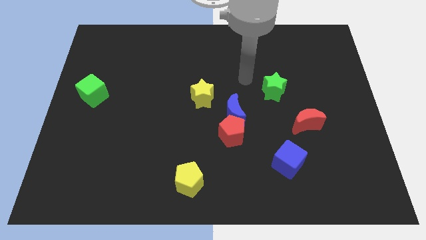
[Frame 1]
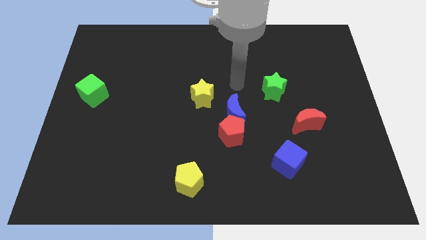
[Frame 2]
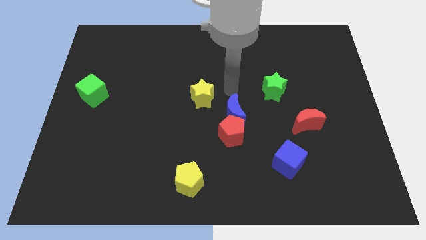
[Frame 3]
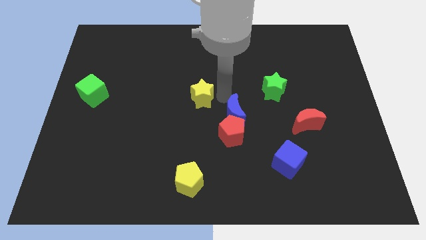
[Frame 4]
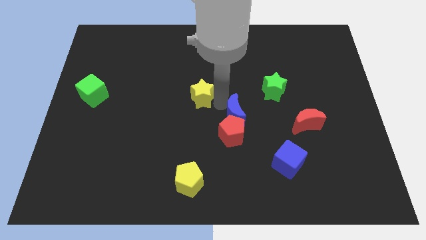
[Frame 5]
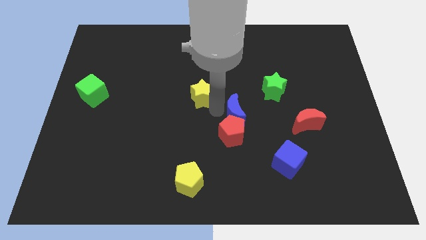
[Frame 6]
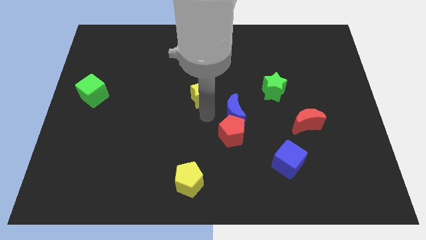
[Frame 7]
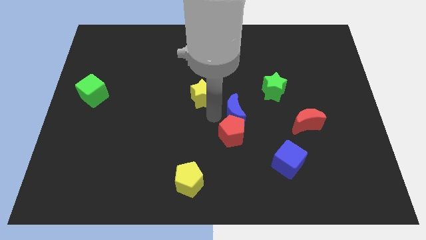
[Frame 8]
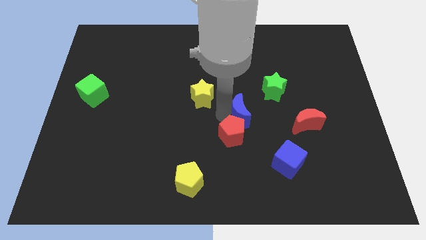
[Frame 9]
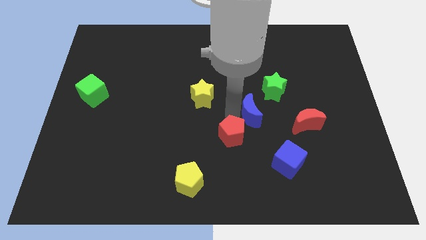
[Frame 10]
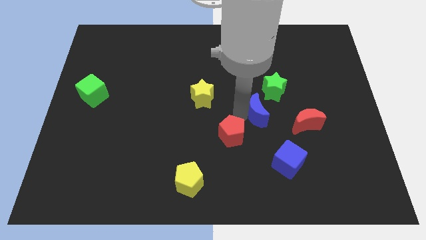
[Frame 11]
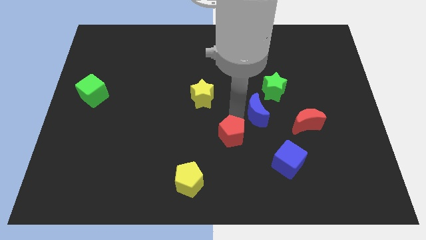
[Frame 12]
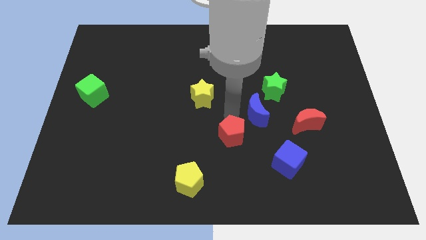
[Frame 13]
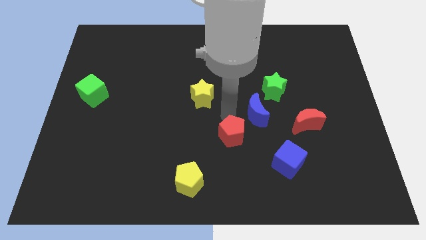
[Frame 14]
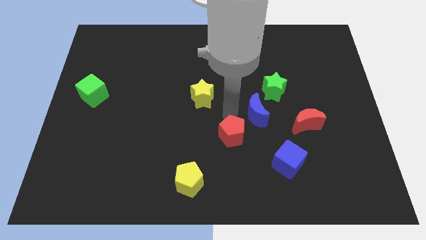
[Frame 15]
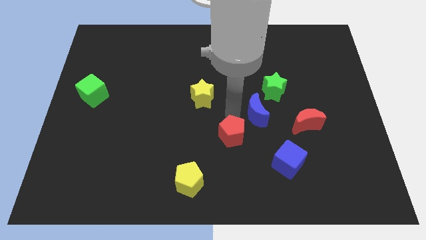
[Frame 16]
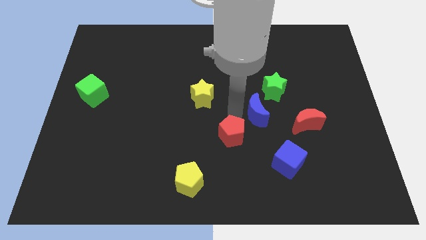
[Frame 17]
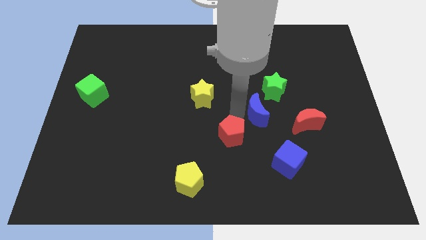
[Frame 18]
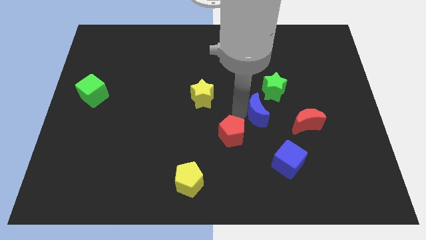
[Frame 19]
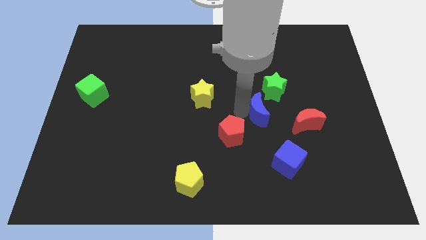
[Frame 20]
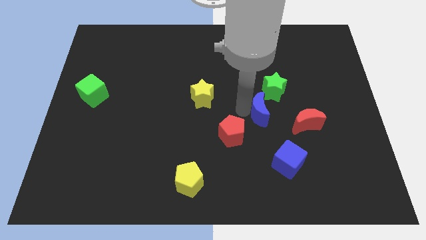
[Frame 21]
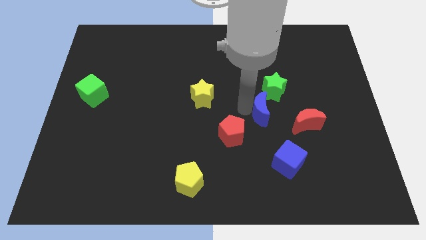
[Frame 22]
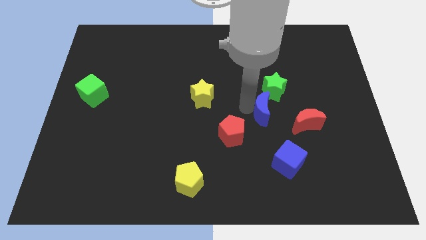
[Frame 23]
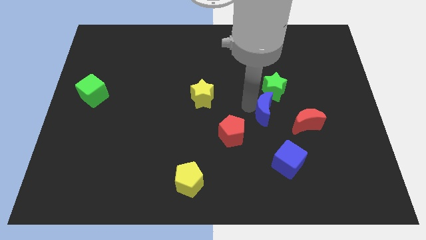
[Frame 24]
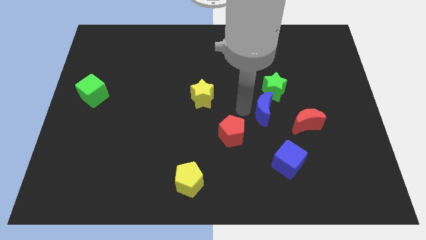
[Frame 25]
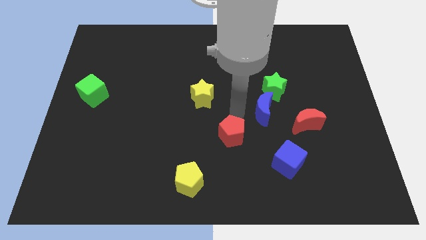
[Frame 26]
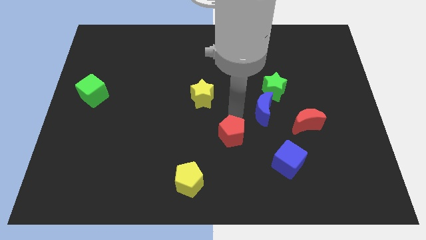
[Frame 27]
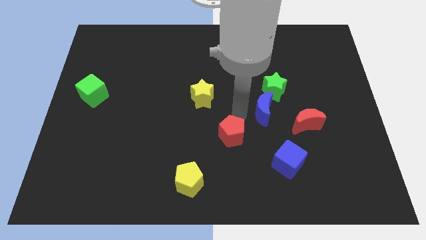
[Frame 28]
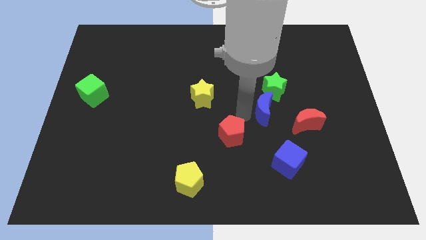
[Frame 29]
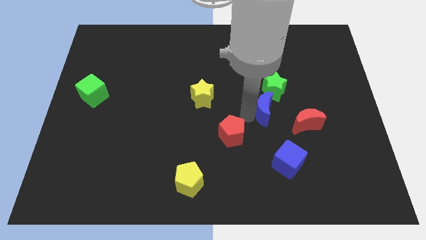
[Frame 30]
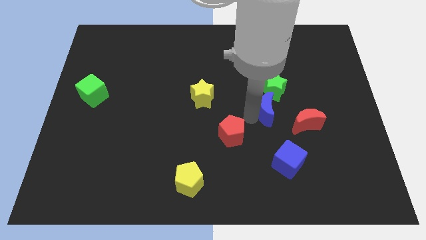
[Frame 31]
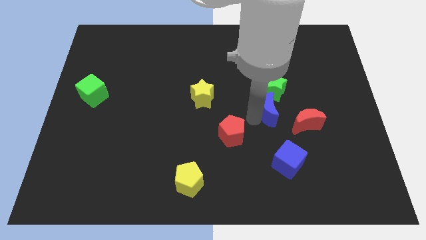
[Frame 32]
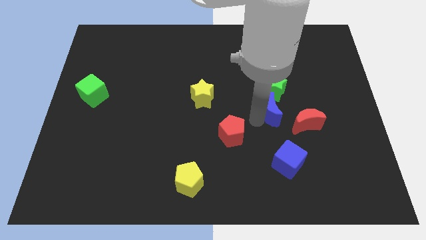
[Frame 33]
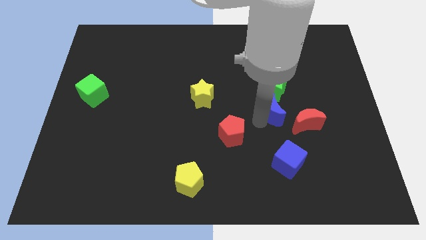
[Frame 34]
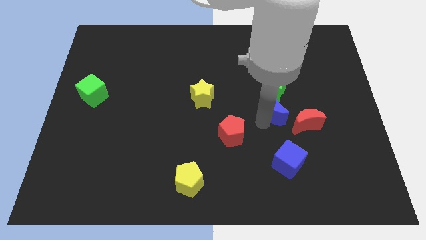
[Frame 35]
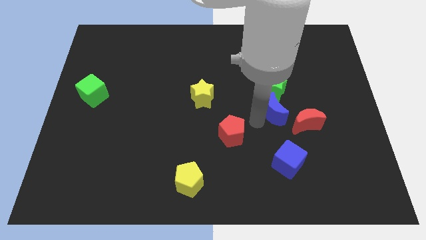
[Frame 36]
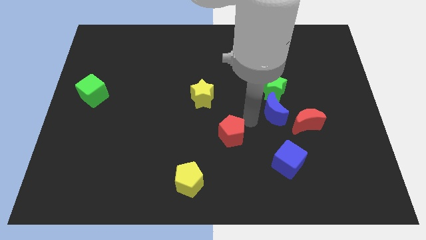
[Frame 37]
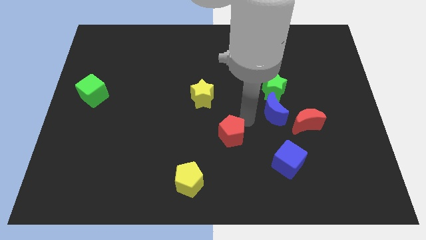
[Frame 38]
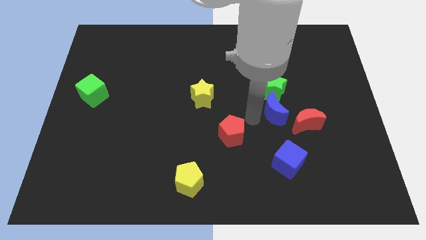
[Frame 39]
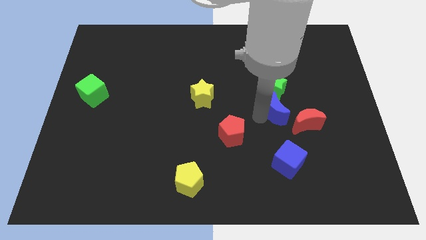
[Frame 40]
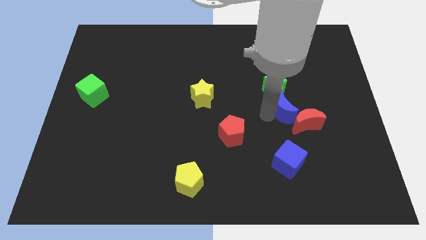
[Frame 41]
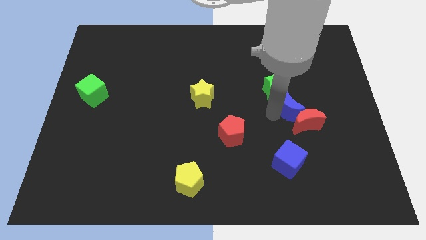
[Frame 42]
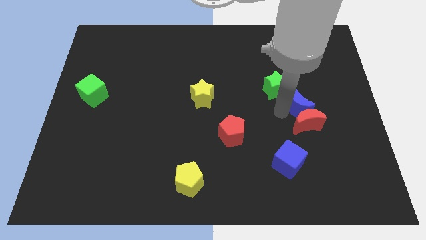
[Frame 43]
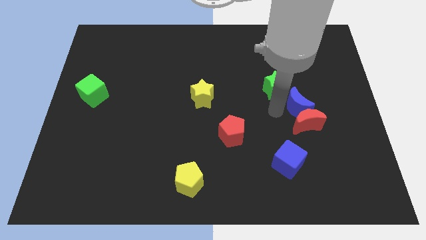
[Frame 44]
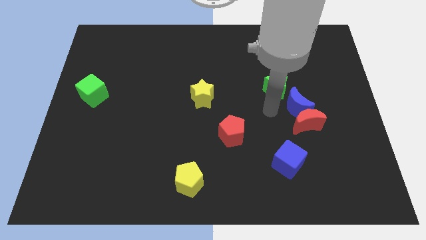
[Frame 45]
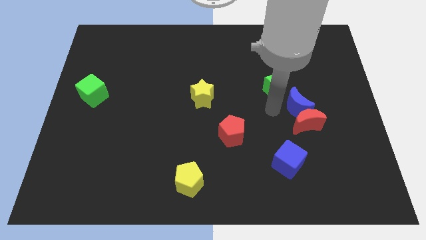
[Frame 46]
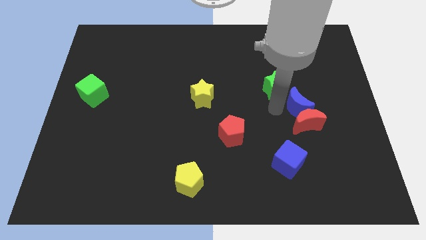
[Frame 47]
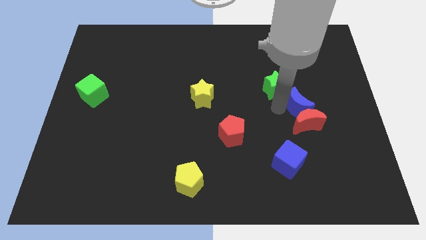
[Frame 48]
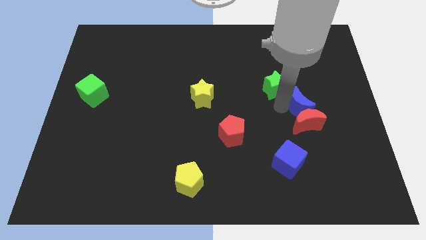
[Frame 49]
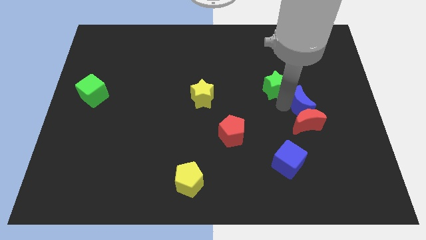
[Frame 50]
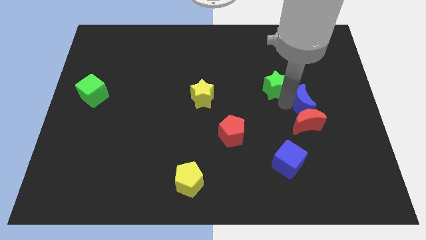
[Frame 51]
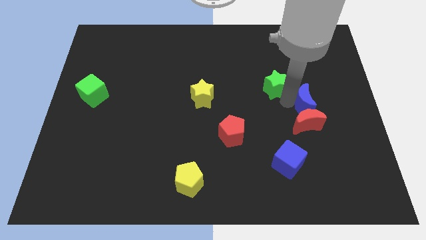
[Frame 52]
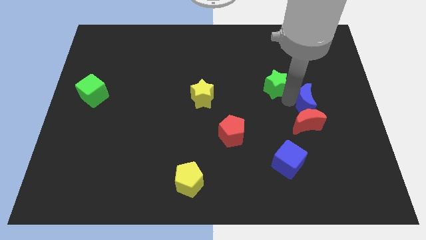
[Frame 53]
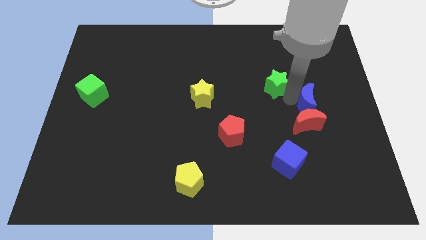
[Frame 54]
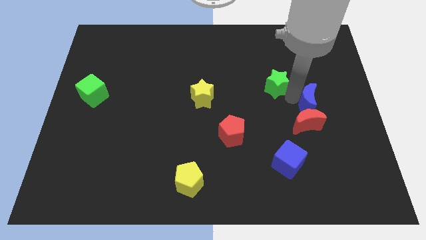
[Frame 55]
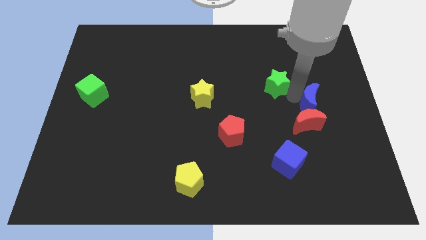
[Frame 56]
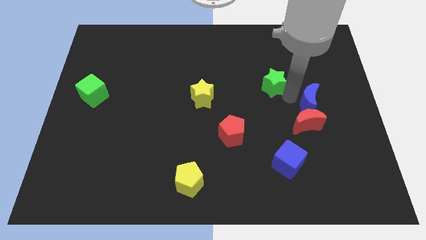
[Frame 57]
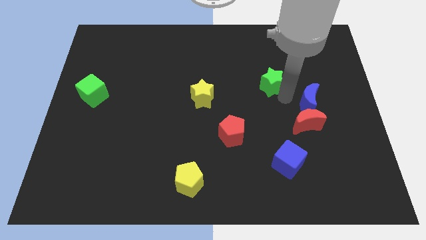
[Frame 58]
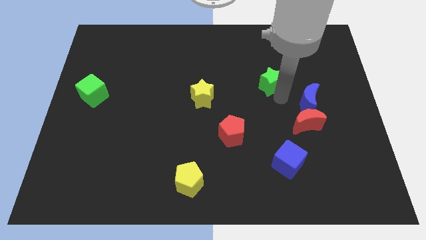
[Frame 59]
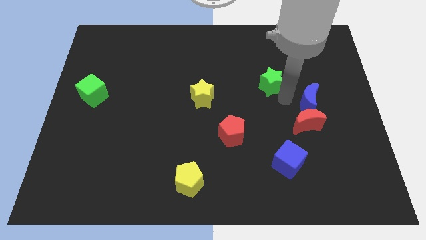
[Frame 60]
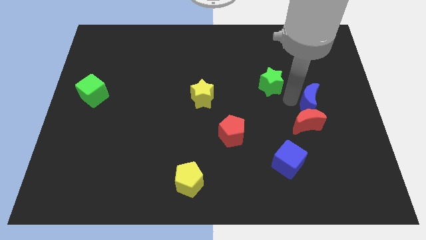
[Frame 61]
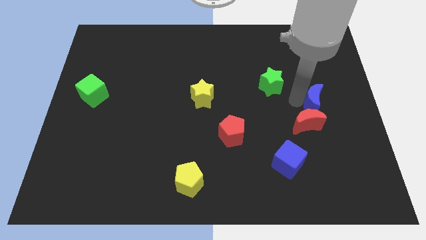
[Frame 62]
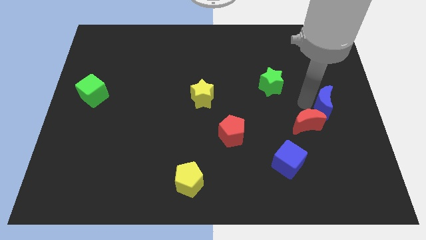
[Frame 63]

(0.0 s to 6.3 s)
push the blue moon to the center right

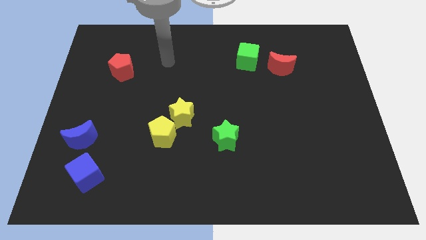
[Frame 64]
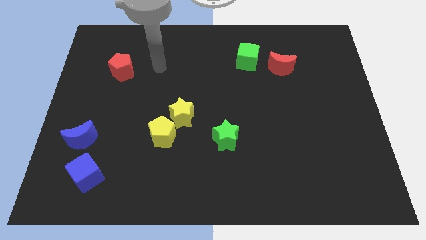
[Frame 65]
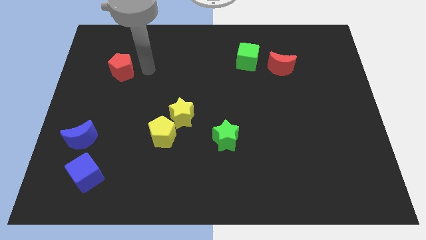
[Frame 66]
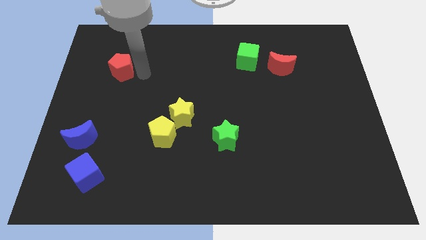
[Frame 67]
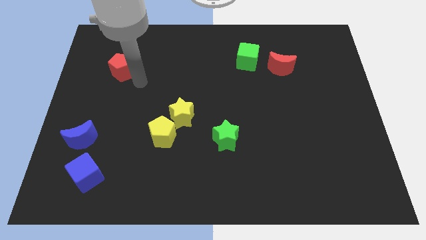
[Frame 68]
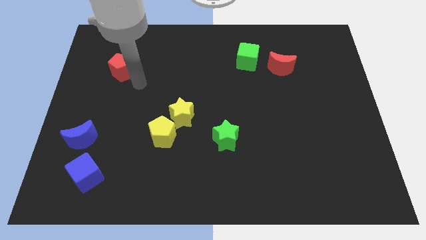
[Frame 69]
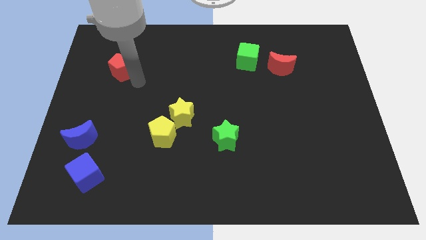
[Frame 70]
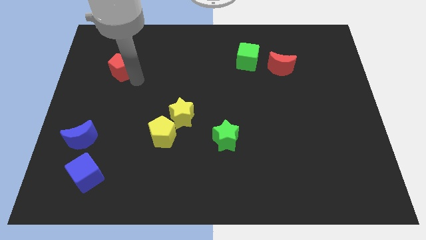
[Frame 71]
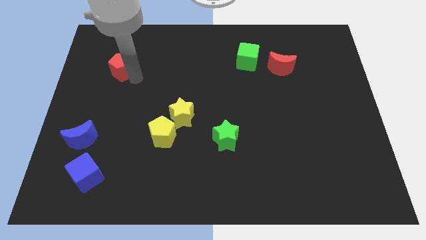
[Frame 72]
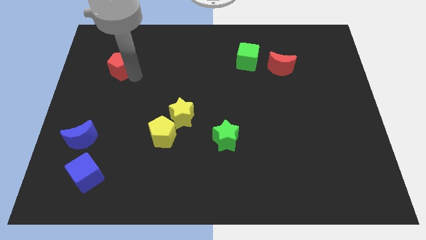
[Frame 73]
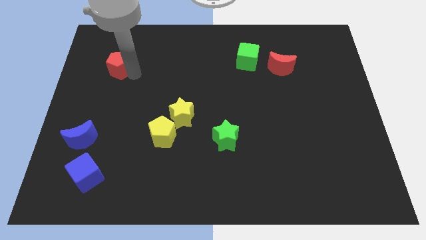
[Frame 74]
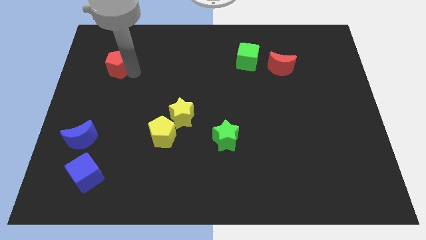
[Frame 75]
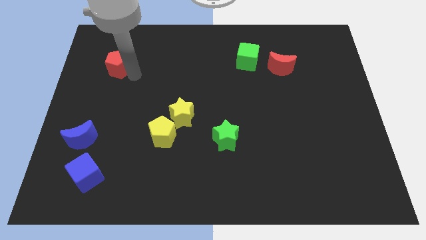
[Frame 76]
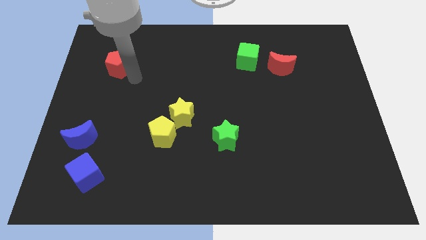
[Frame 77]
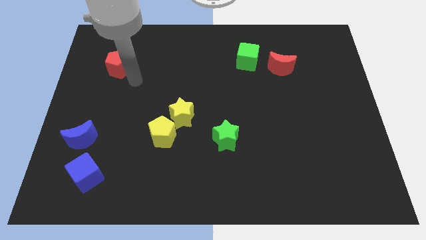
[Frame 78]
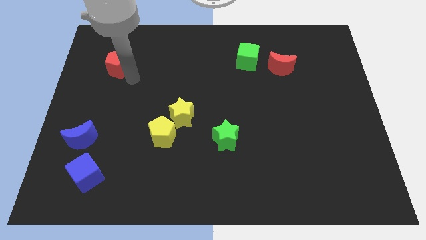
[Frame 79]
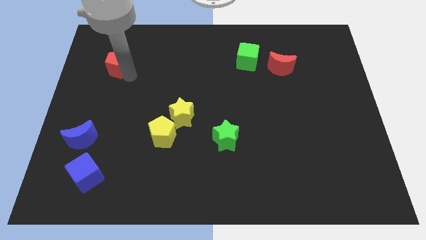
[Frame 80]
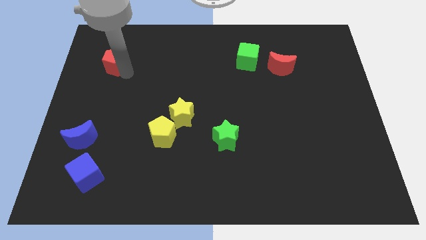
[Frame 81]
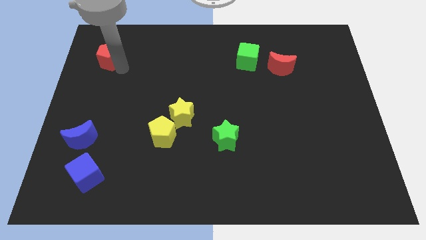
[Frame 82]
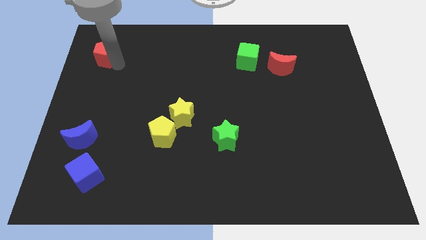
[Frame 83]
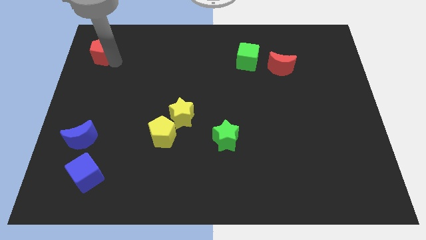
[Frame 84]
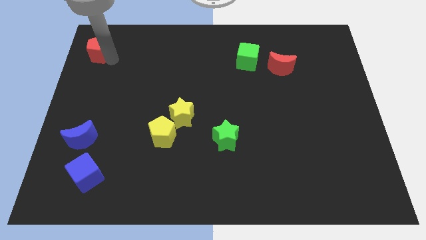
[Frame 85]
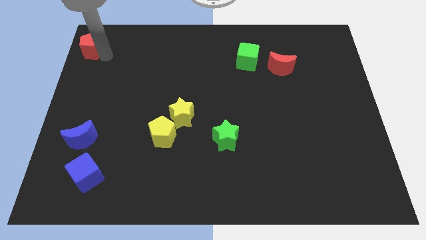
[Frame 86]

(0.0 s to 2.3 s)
move the red pentagon to the top left
